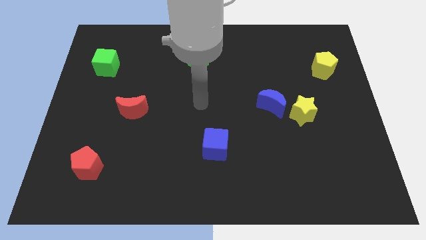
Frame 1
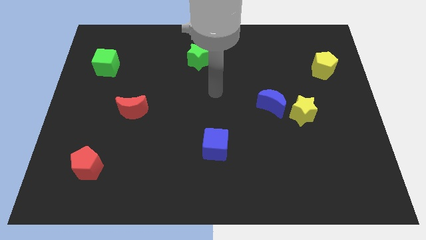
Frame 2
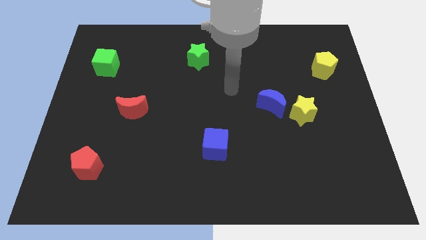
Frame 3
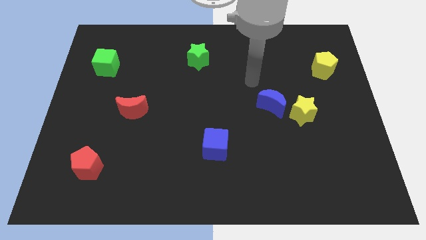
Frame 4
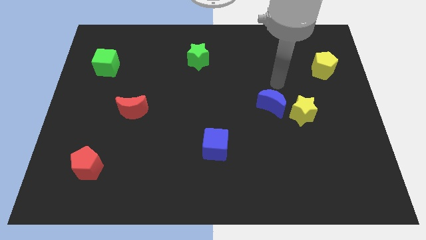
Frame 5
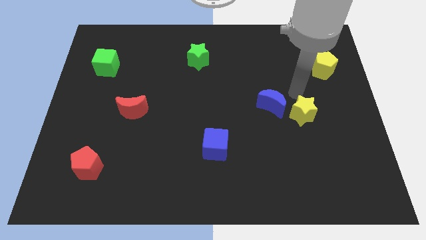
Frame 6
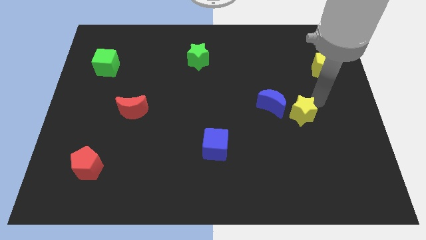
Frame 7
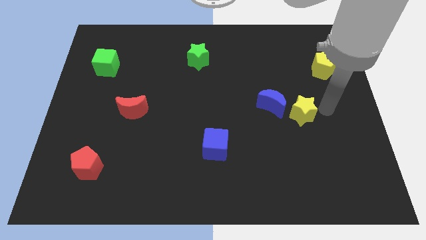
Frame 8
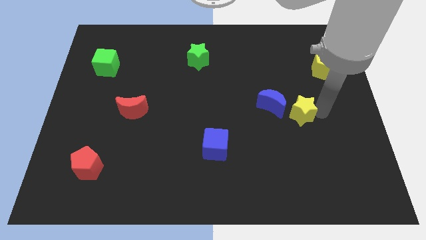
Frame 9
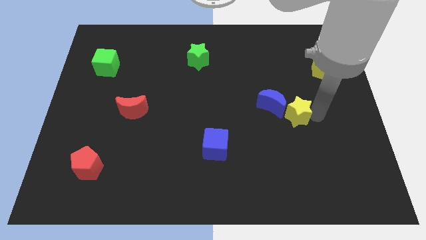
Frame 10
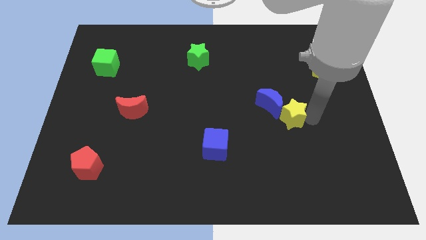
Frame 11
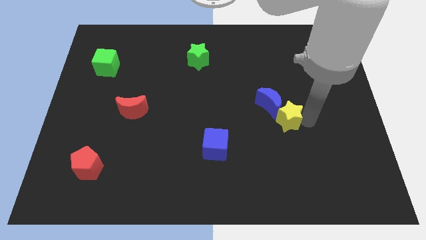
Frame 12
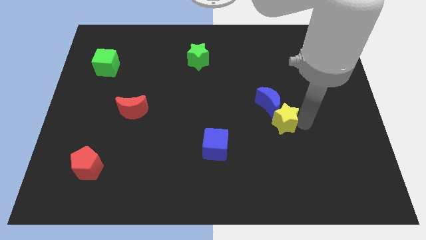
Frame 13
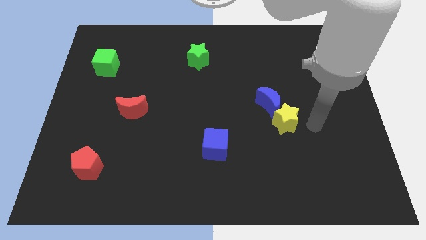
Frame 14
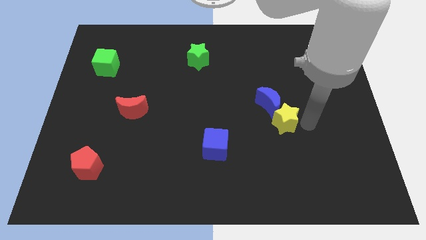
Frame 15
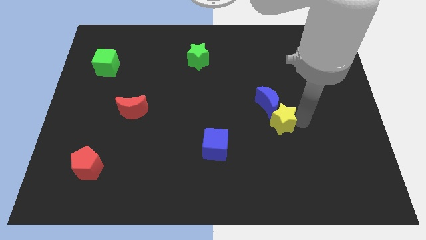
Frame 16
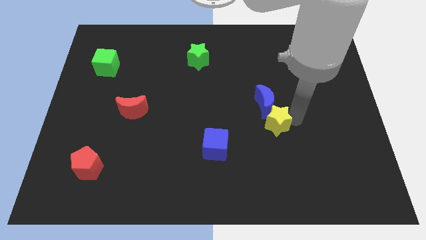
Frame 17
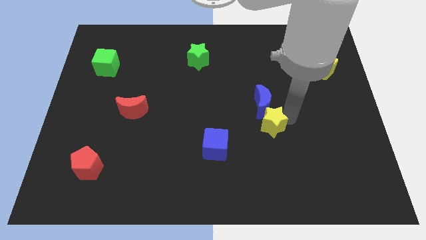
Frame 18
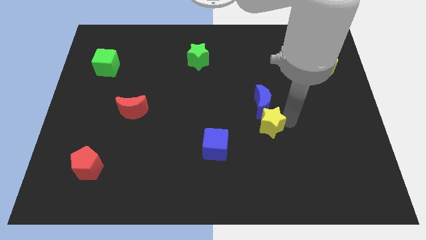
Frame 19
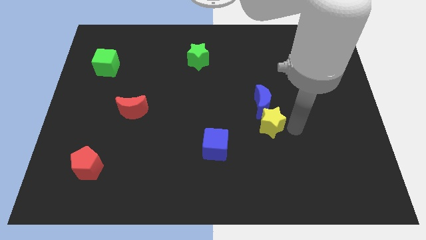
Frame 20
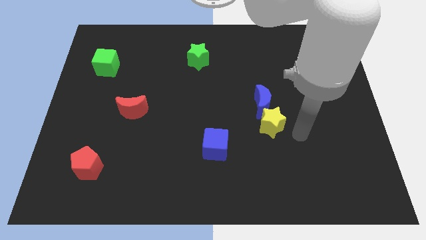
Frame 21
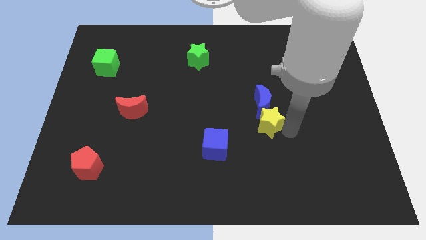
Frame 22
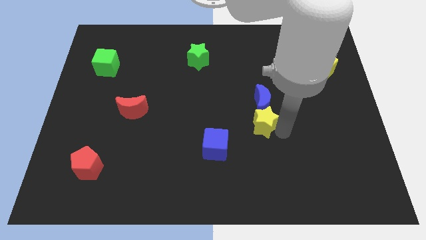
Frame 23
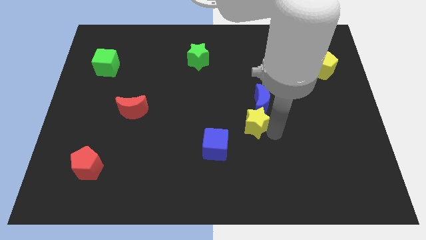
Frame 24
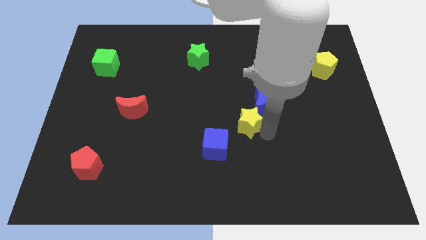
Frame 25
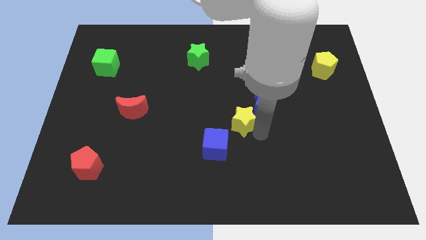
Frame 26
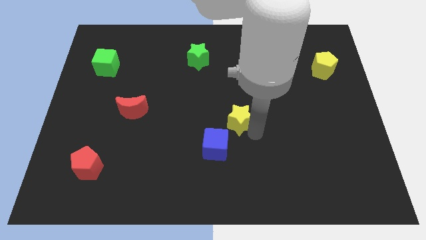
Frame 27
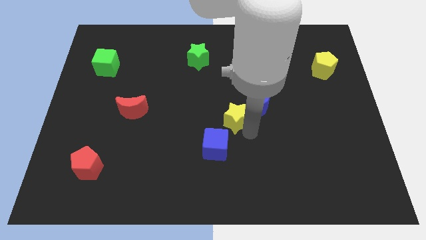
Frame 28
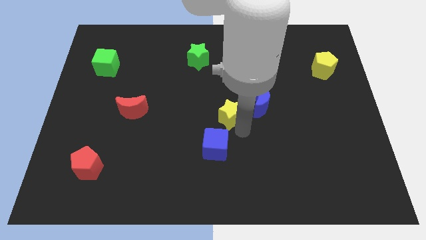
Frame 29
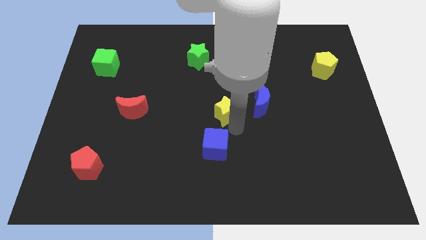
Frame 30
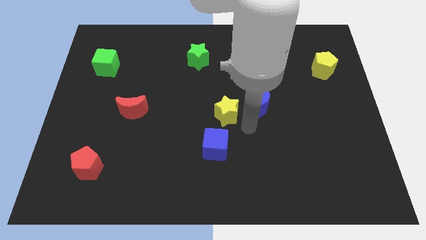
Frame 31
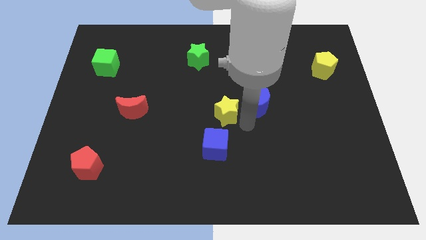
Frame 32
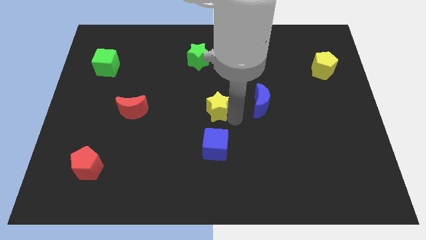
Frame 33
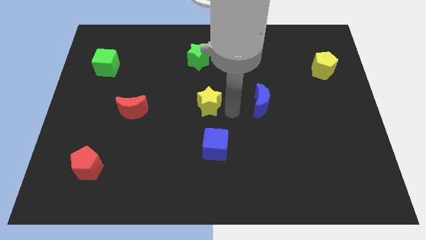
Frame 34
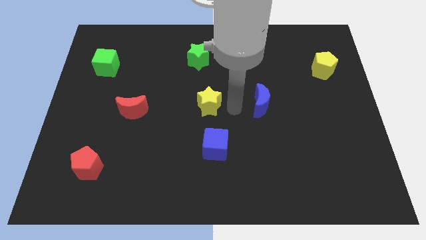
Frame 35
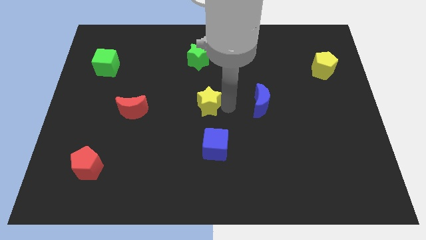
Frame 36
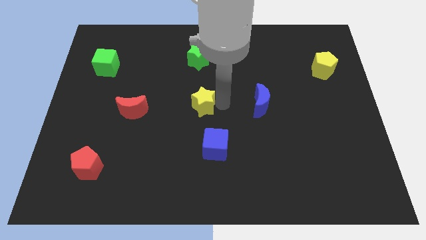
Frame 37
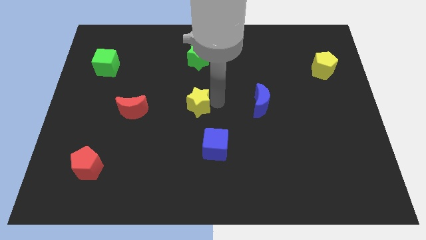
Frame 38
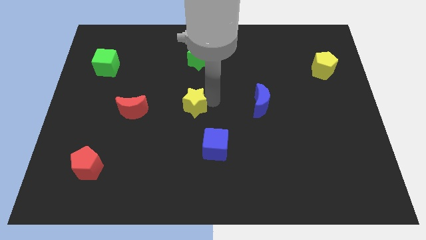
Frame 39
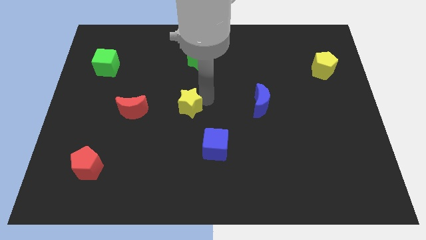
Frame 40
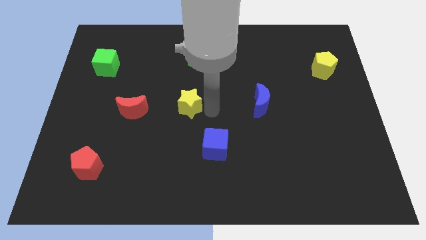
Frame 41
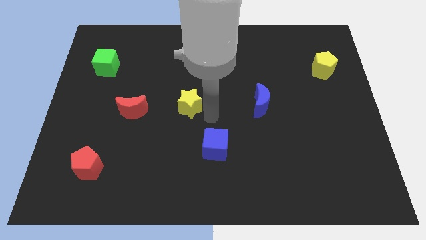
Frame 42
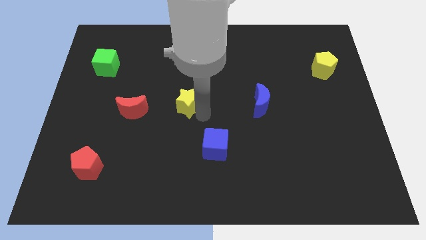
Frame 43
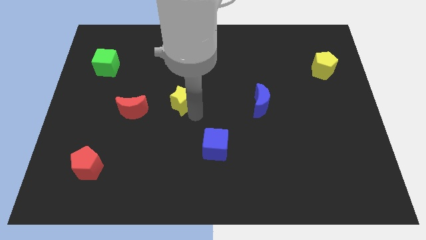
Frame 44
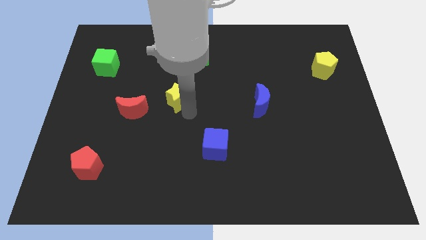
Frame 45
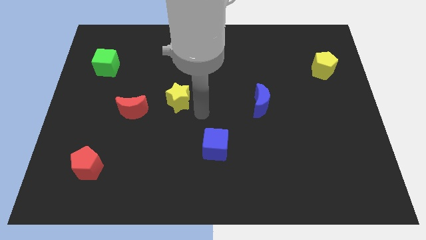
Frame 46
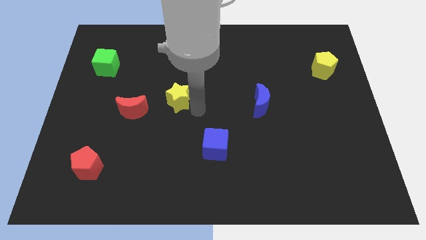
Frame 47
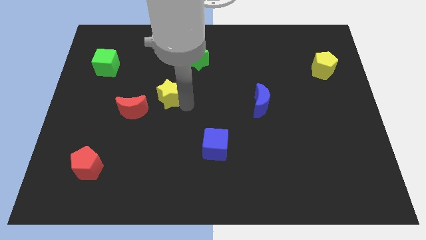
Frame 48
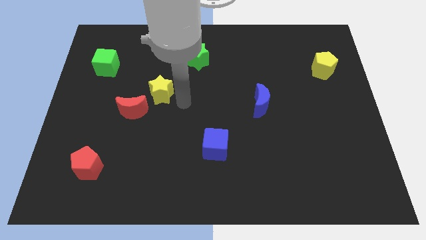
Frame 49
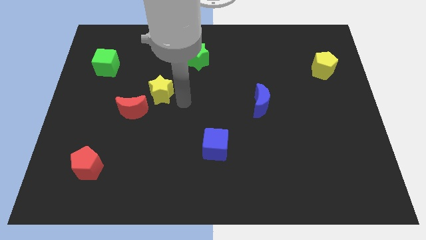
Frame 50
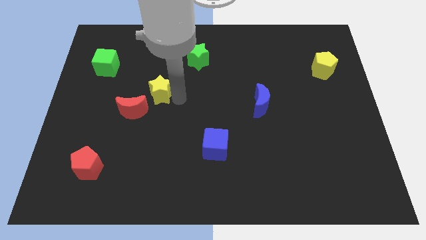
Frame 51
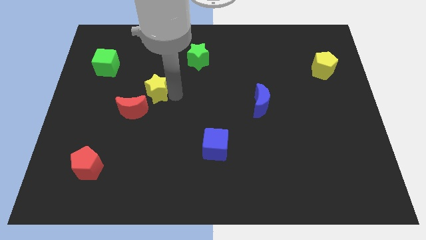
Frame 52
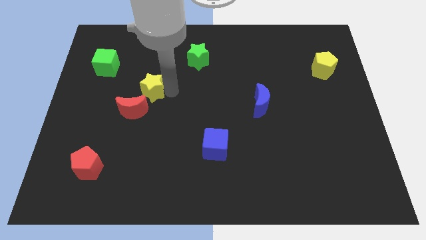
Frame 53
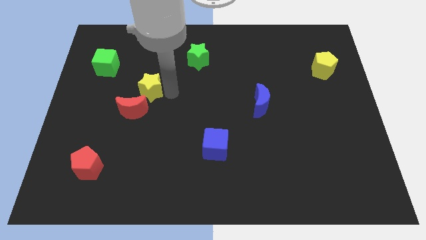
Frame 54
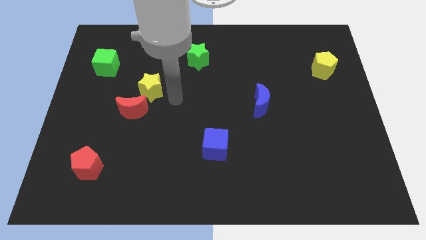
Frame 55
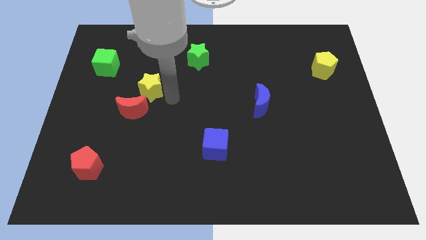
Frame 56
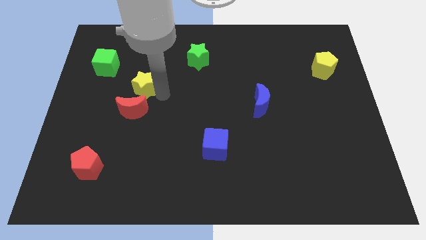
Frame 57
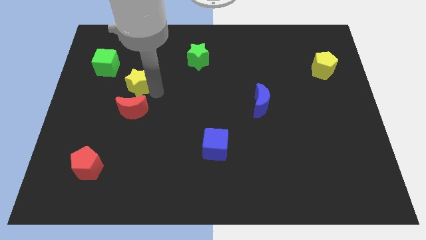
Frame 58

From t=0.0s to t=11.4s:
put the yellow star to the bottom right of the green cube

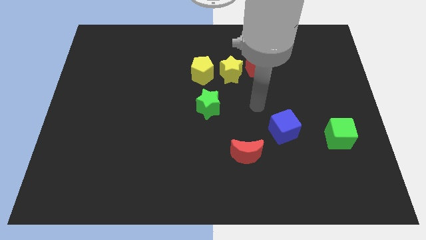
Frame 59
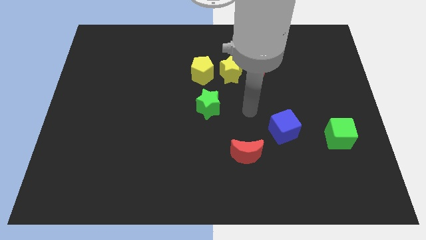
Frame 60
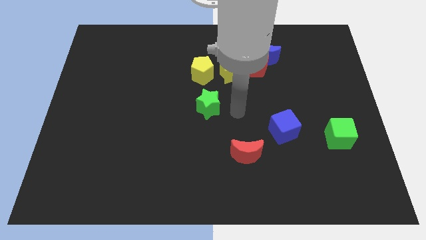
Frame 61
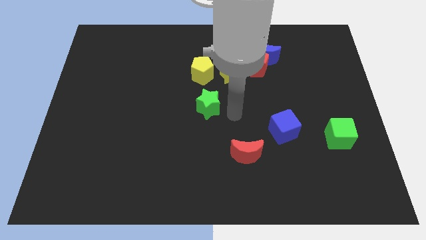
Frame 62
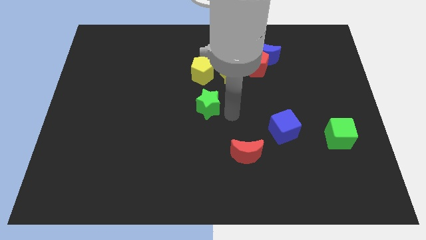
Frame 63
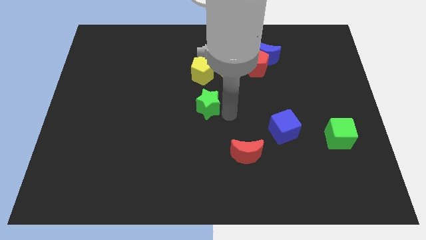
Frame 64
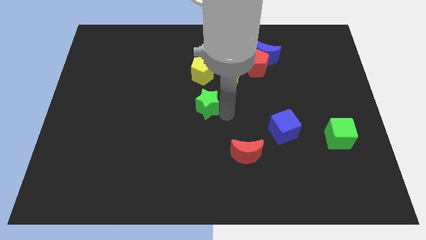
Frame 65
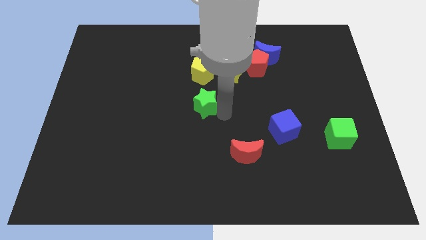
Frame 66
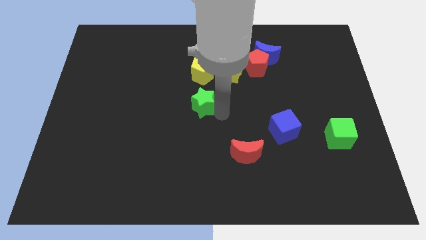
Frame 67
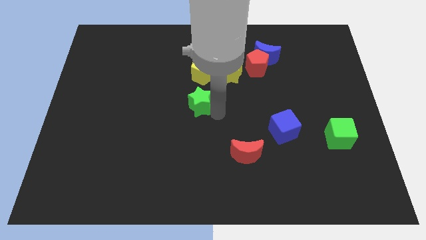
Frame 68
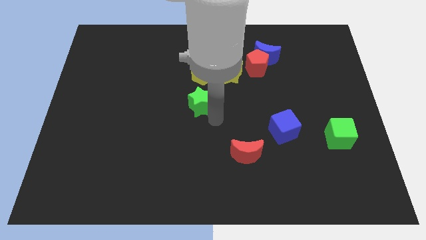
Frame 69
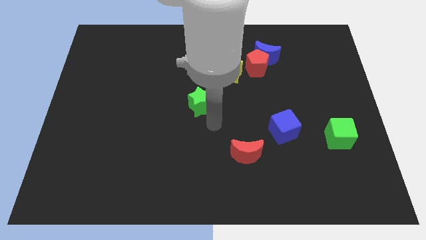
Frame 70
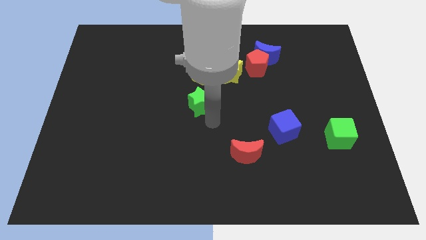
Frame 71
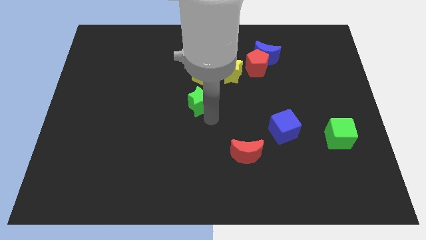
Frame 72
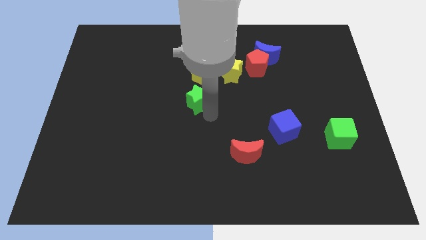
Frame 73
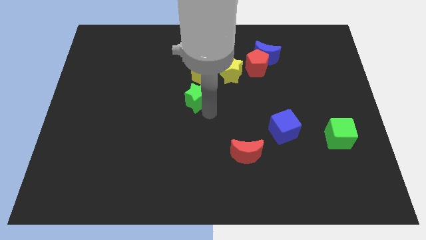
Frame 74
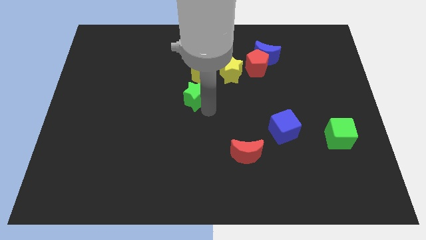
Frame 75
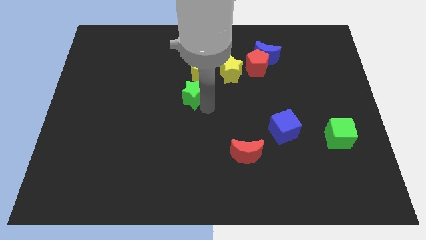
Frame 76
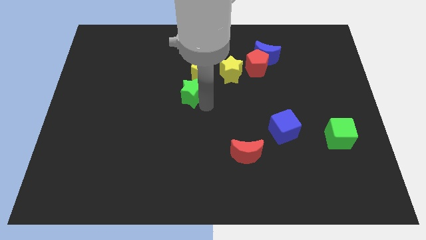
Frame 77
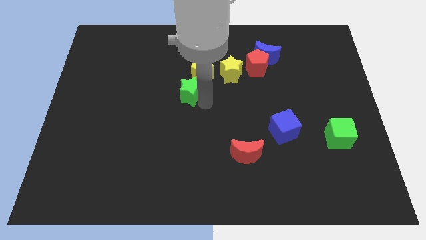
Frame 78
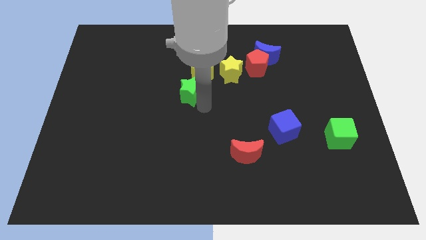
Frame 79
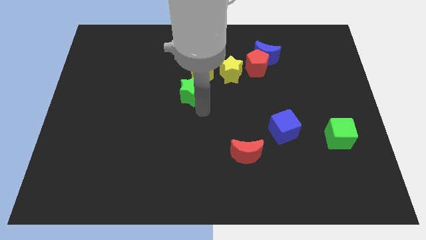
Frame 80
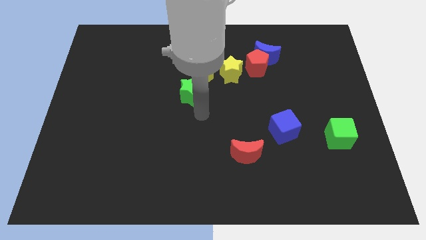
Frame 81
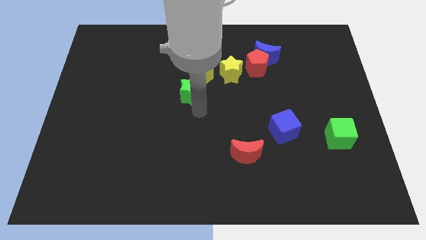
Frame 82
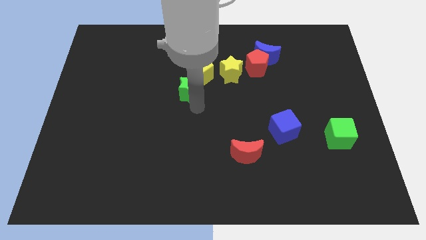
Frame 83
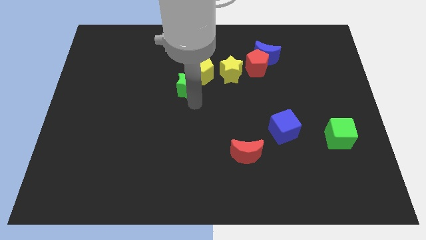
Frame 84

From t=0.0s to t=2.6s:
push the green star to the left of the yellow star
